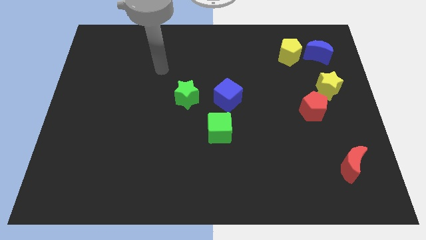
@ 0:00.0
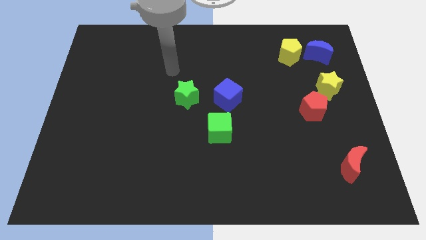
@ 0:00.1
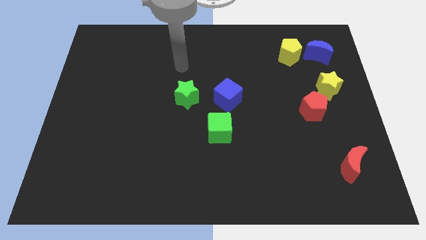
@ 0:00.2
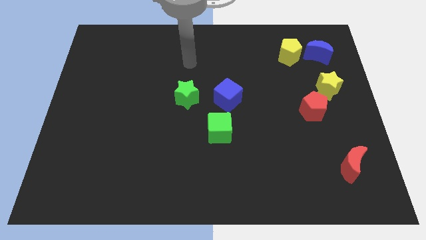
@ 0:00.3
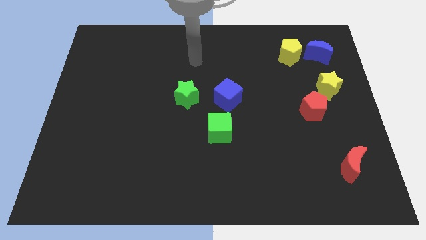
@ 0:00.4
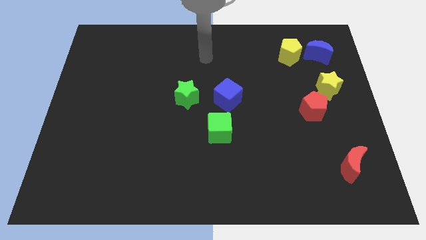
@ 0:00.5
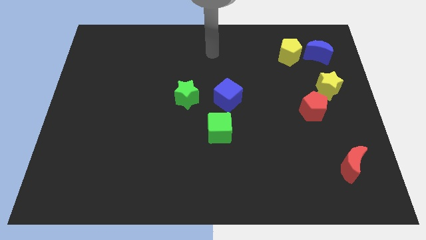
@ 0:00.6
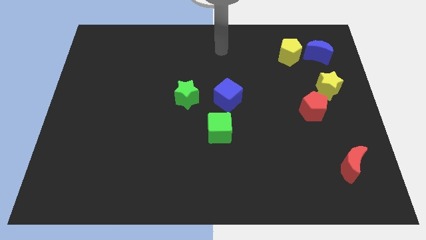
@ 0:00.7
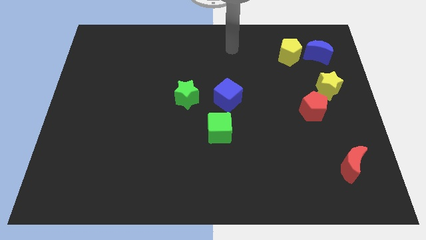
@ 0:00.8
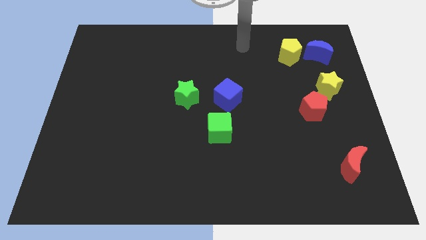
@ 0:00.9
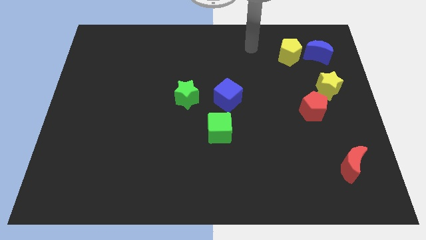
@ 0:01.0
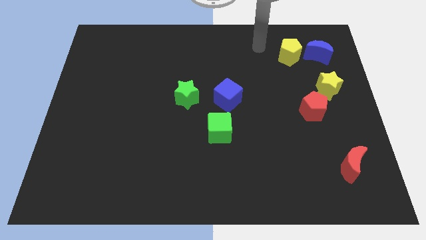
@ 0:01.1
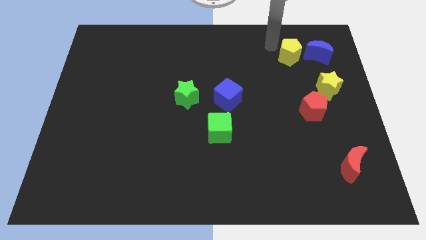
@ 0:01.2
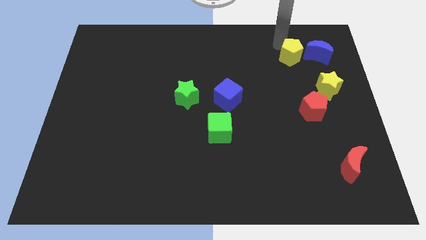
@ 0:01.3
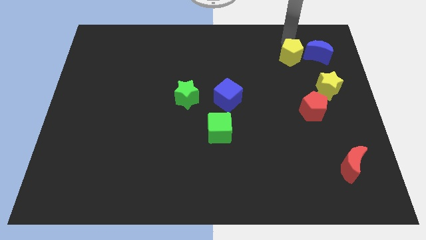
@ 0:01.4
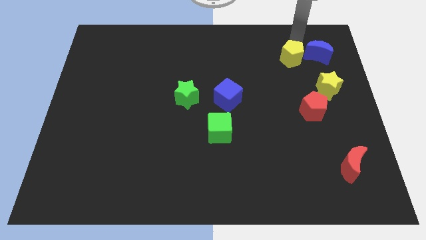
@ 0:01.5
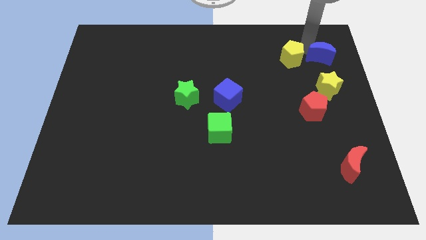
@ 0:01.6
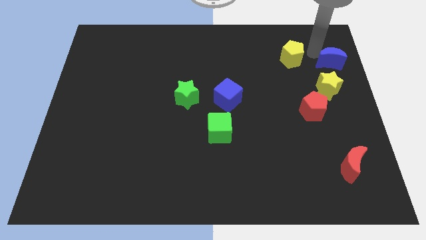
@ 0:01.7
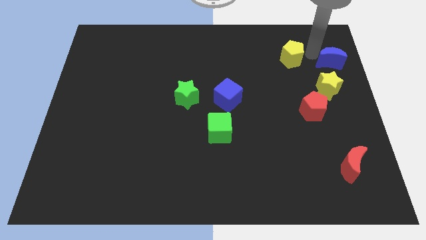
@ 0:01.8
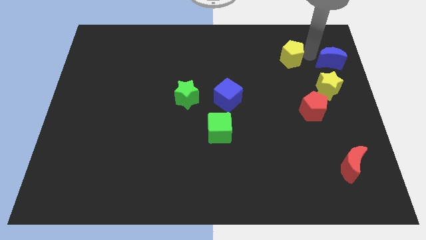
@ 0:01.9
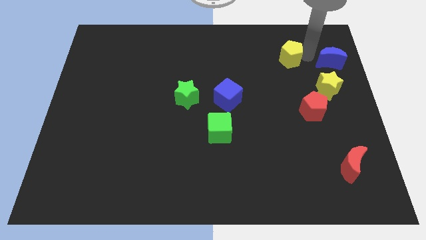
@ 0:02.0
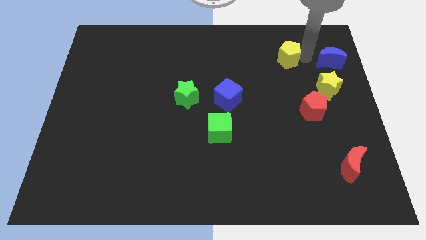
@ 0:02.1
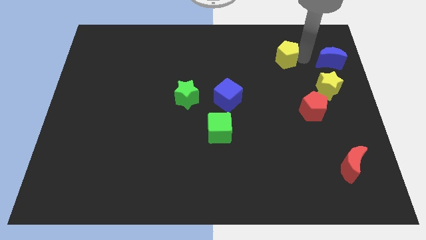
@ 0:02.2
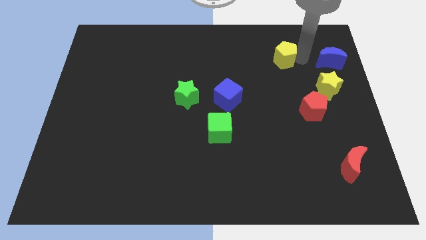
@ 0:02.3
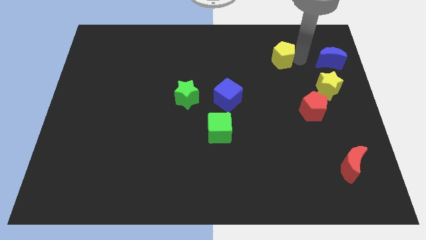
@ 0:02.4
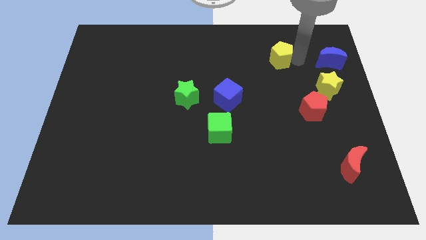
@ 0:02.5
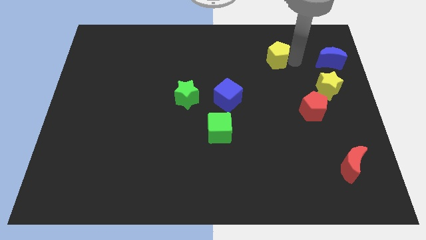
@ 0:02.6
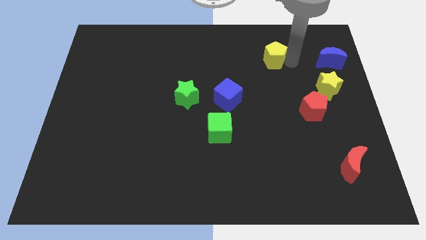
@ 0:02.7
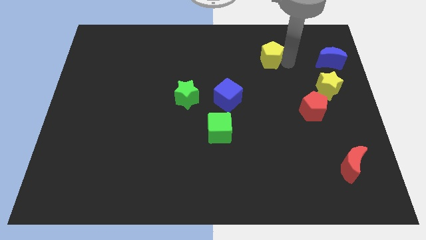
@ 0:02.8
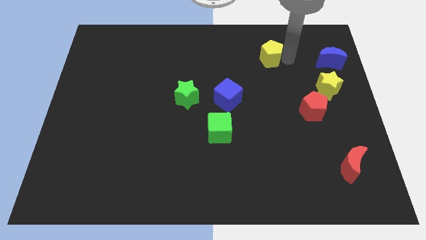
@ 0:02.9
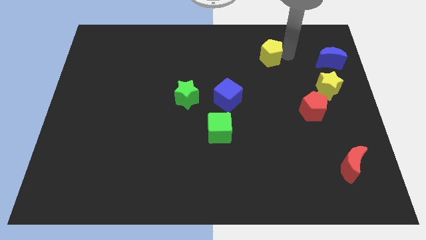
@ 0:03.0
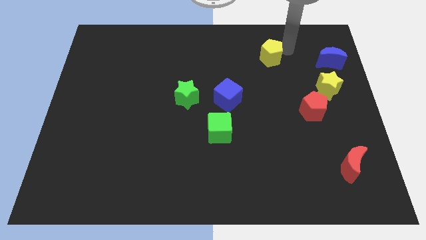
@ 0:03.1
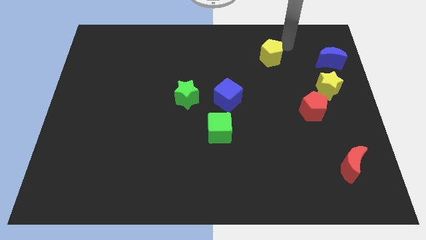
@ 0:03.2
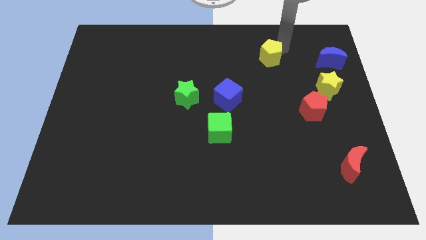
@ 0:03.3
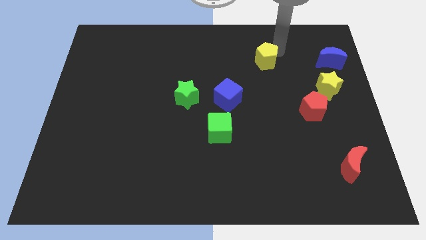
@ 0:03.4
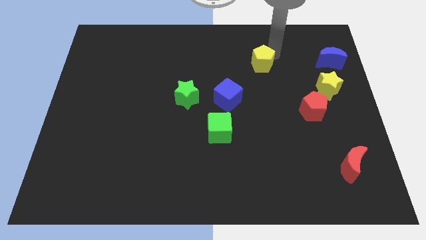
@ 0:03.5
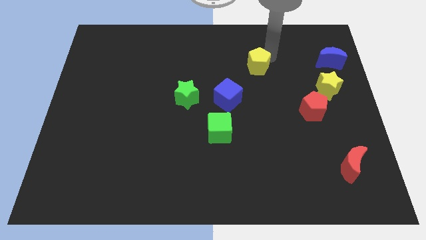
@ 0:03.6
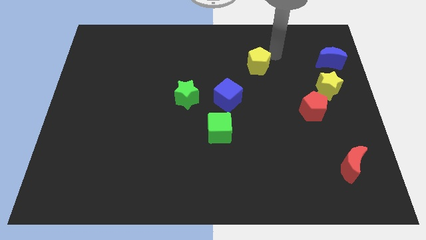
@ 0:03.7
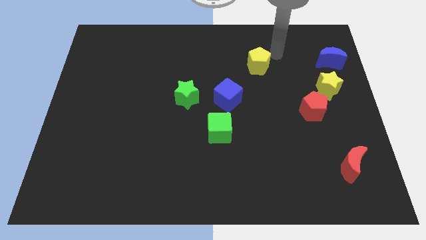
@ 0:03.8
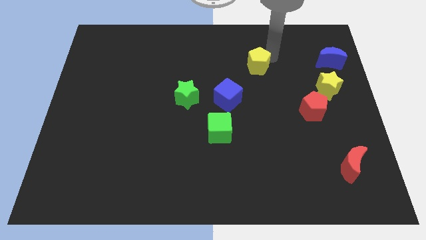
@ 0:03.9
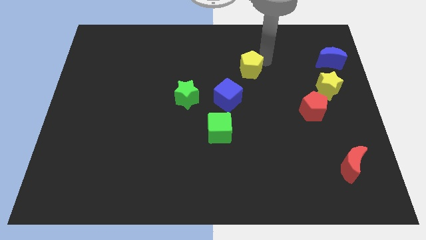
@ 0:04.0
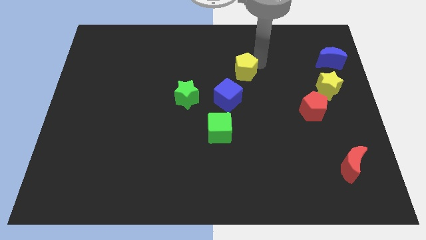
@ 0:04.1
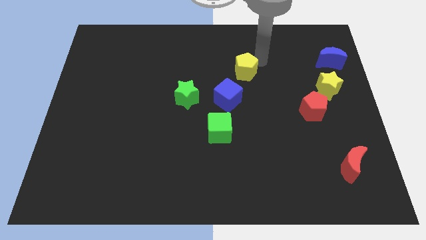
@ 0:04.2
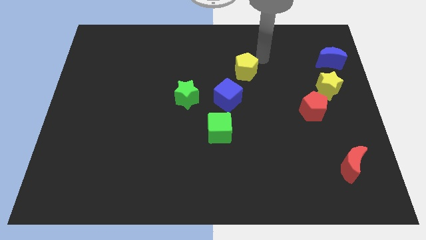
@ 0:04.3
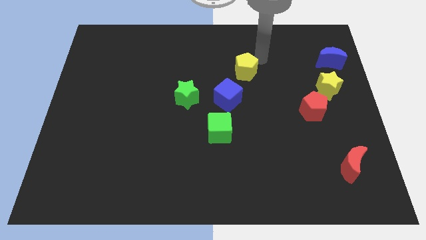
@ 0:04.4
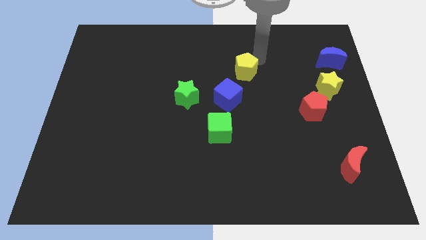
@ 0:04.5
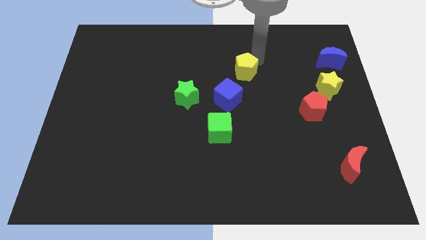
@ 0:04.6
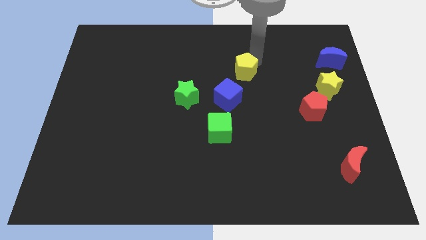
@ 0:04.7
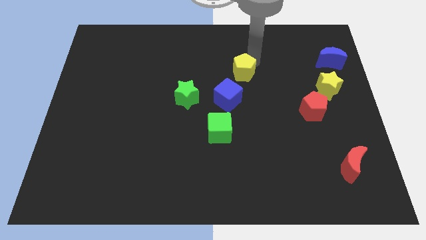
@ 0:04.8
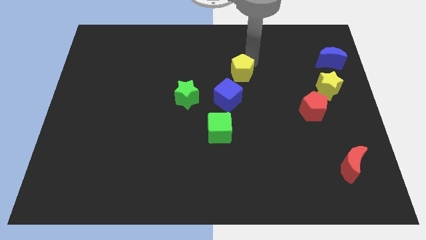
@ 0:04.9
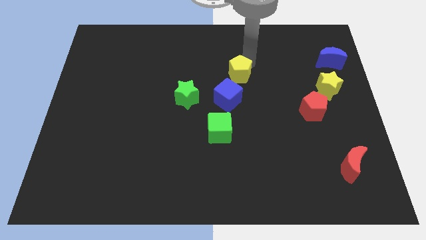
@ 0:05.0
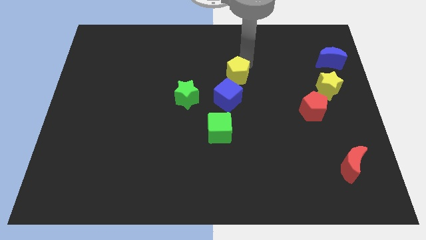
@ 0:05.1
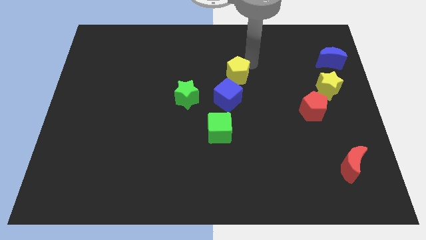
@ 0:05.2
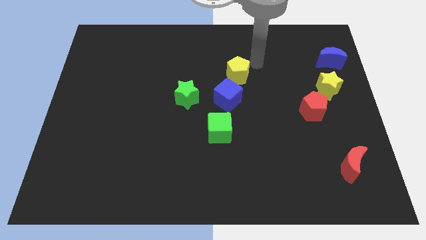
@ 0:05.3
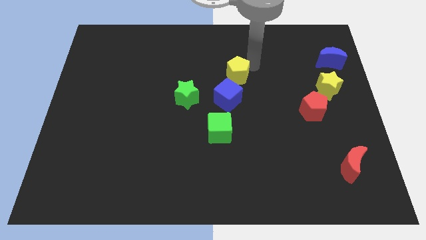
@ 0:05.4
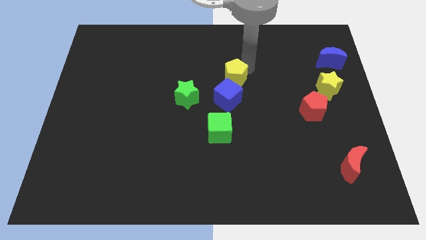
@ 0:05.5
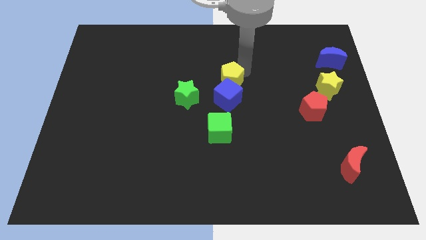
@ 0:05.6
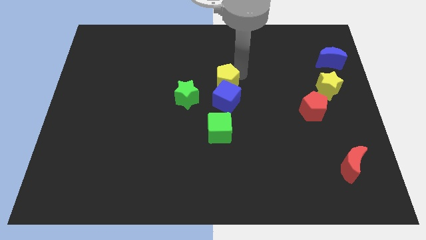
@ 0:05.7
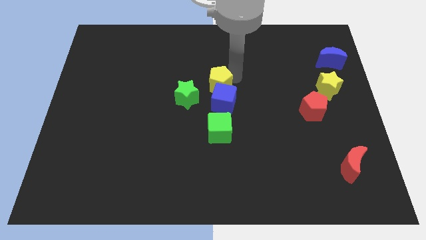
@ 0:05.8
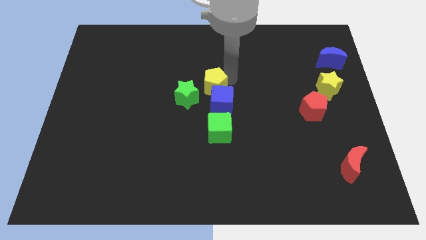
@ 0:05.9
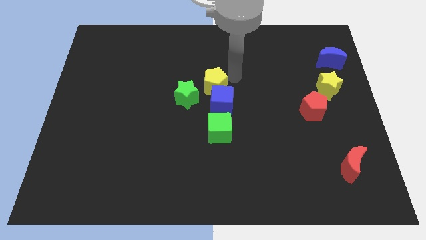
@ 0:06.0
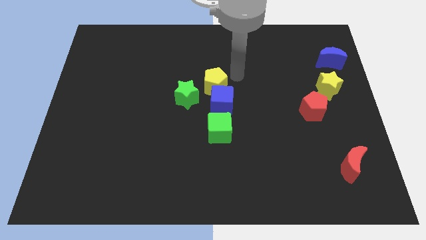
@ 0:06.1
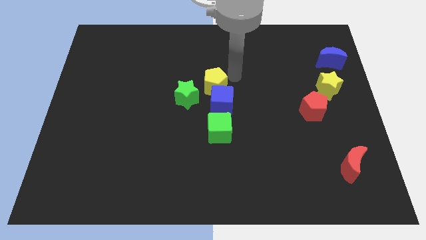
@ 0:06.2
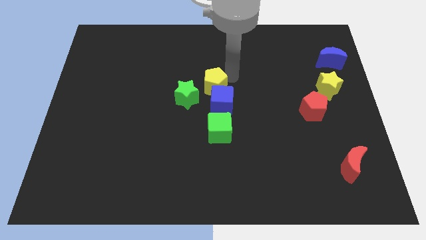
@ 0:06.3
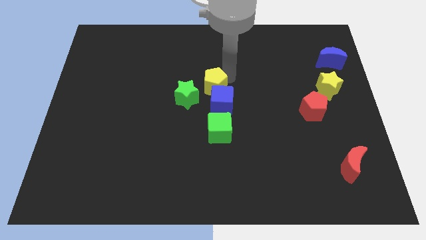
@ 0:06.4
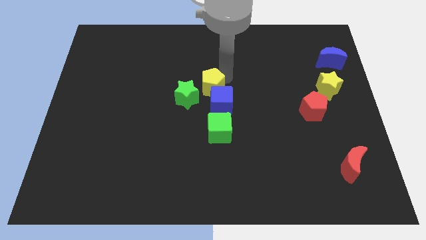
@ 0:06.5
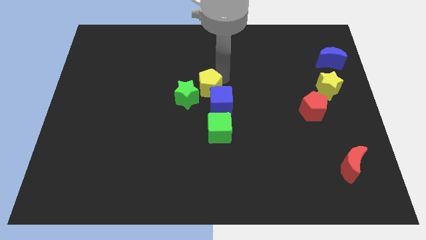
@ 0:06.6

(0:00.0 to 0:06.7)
slide the yellow pentagon next to the green star
